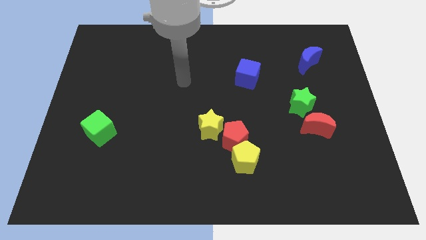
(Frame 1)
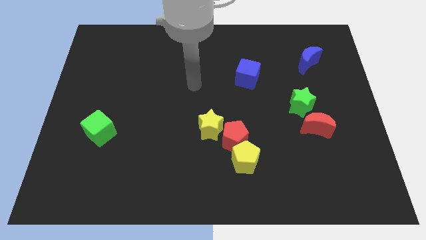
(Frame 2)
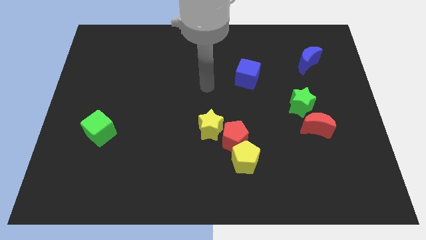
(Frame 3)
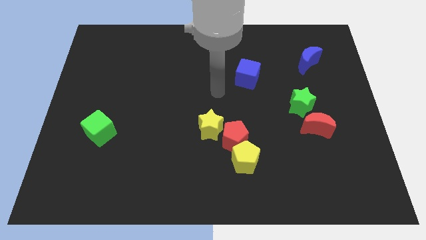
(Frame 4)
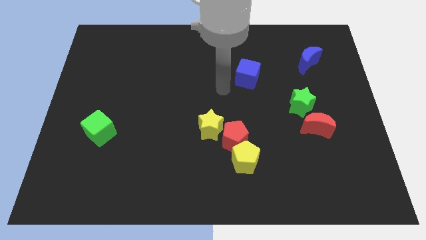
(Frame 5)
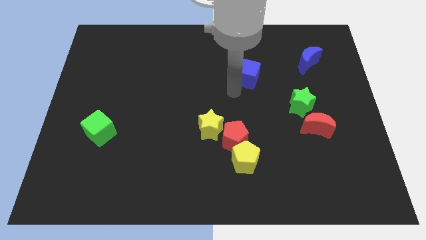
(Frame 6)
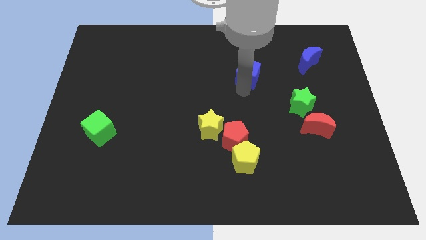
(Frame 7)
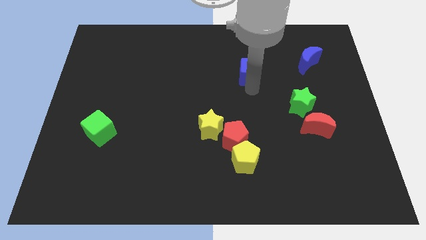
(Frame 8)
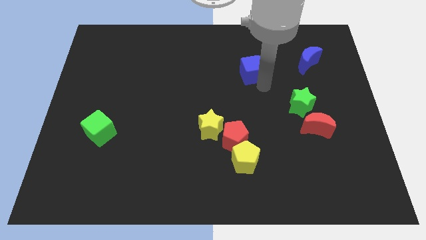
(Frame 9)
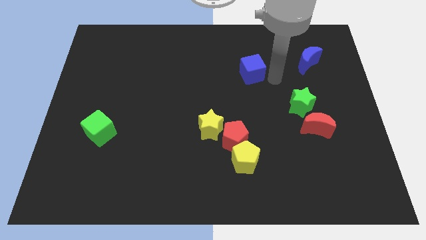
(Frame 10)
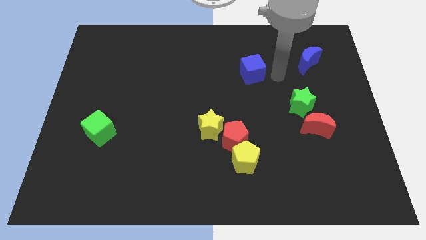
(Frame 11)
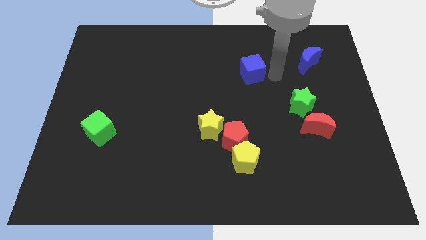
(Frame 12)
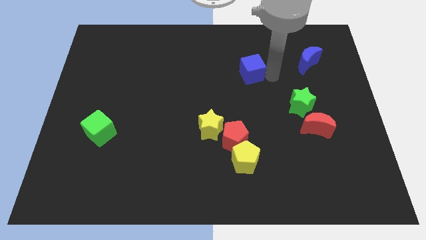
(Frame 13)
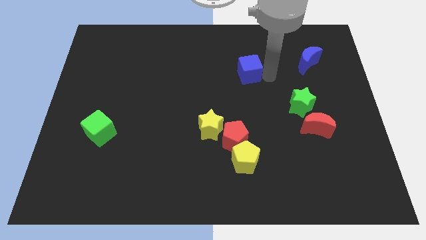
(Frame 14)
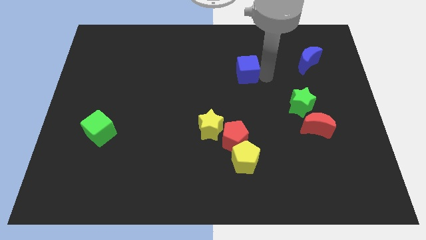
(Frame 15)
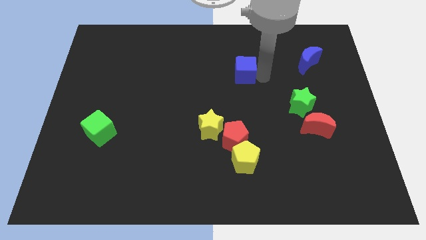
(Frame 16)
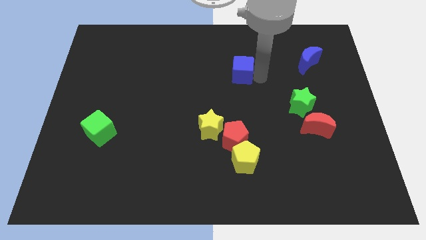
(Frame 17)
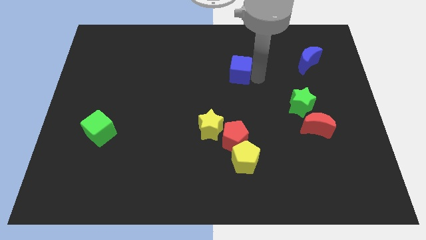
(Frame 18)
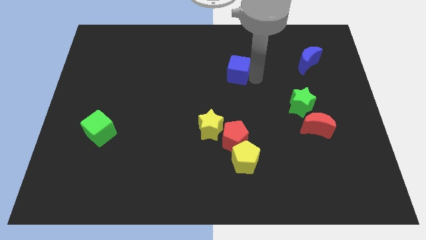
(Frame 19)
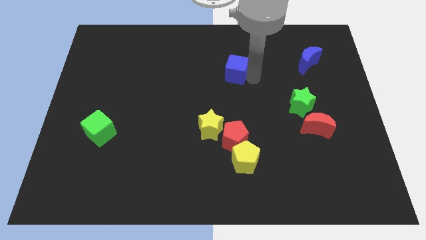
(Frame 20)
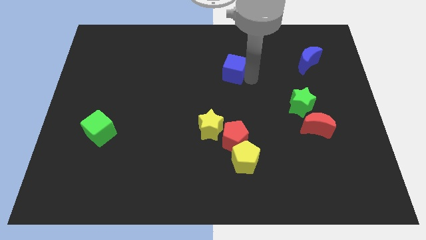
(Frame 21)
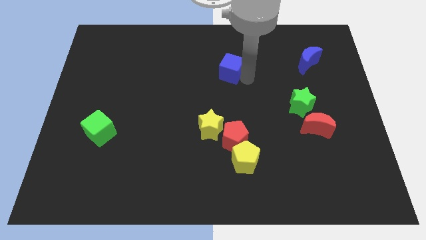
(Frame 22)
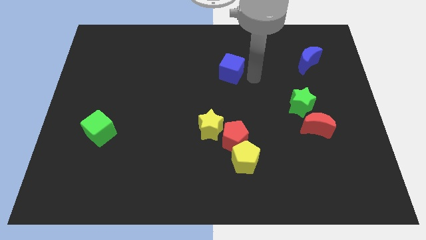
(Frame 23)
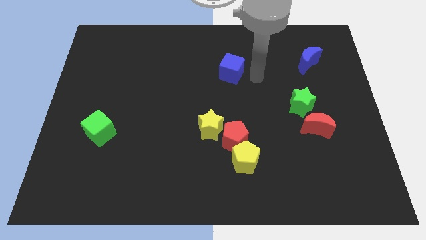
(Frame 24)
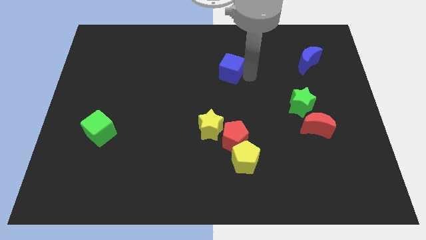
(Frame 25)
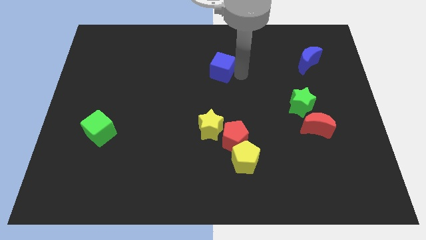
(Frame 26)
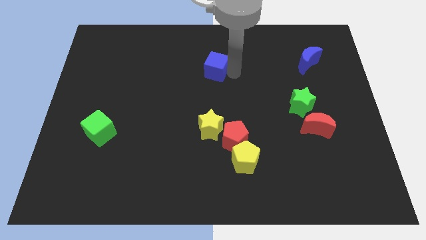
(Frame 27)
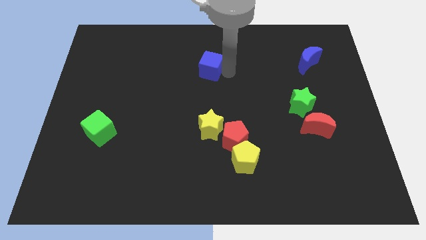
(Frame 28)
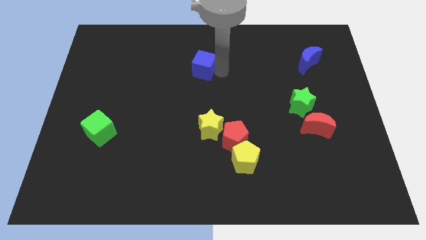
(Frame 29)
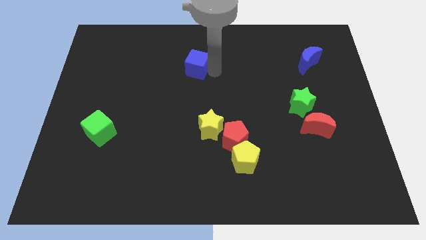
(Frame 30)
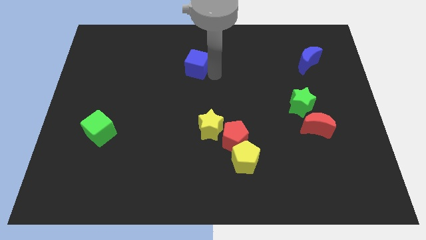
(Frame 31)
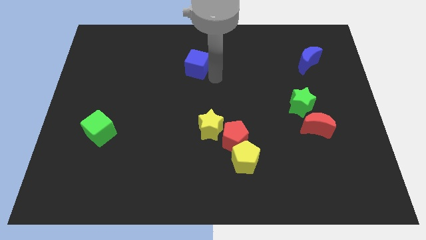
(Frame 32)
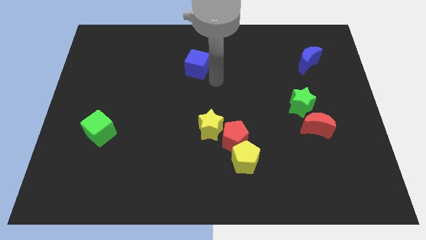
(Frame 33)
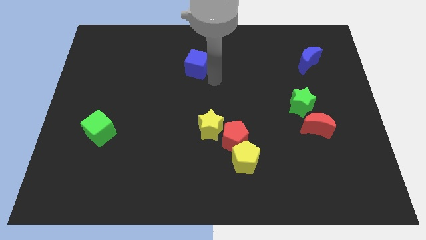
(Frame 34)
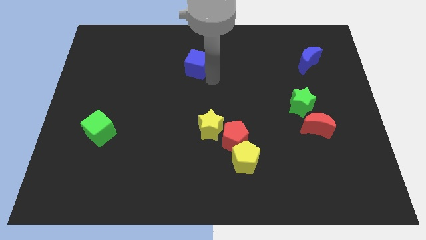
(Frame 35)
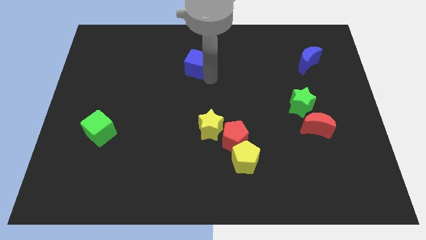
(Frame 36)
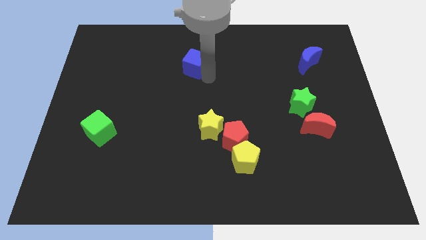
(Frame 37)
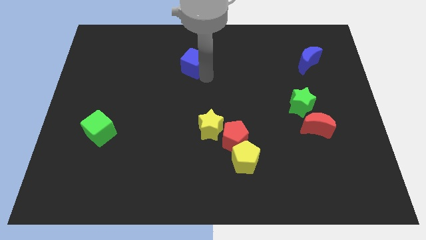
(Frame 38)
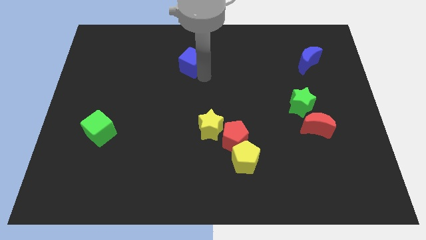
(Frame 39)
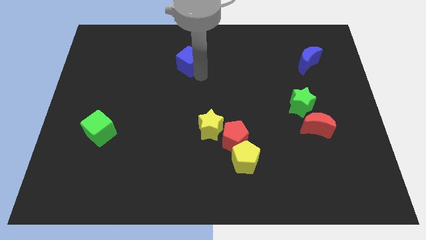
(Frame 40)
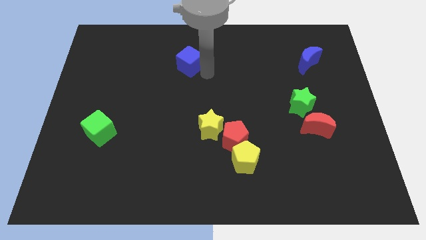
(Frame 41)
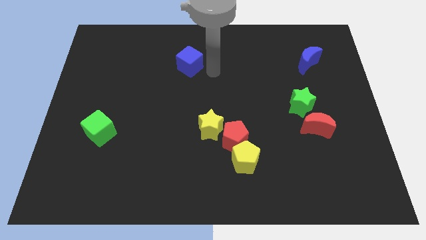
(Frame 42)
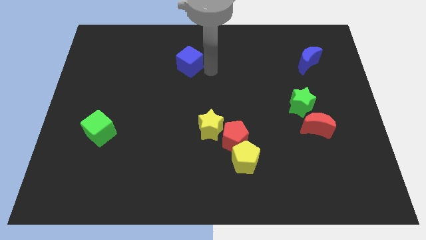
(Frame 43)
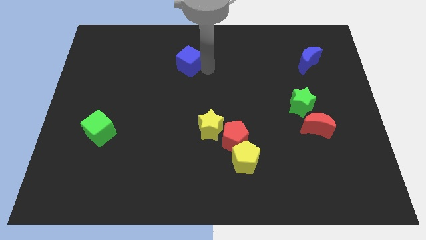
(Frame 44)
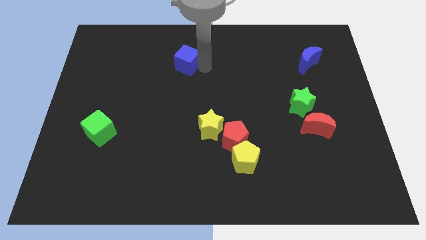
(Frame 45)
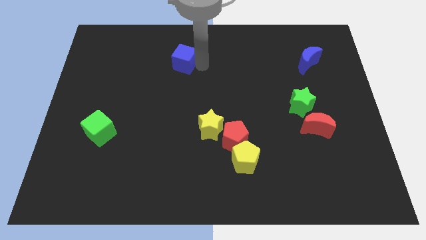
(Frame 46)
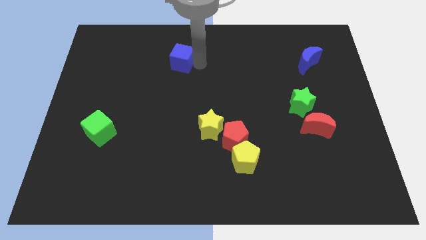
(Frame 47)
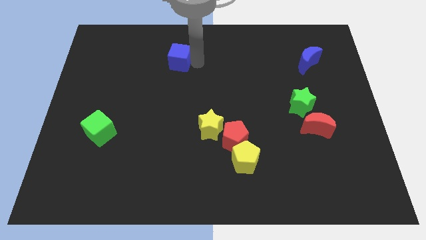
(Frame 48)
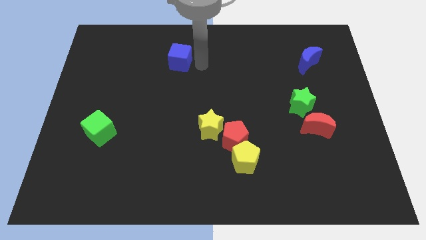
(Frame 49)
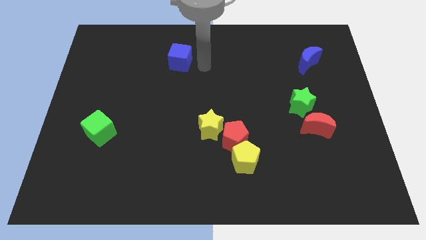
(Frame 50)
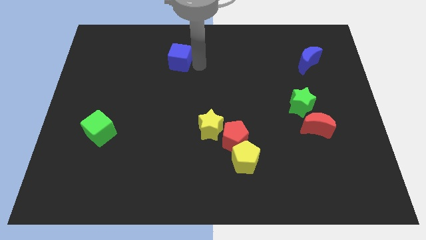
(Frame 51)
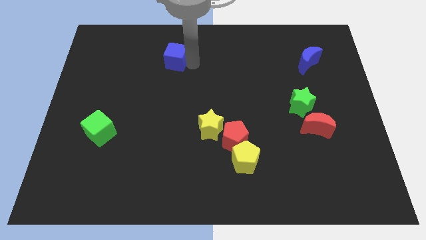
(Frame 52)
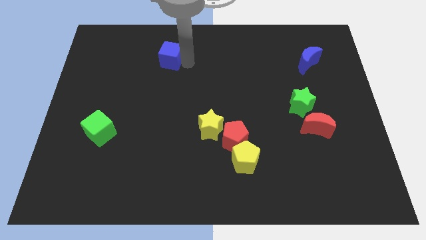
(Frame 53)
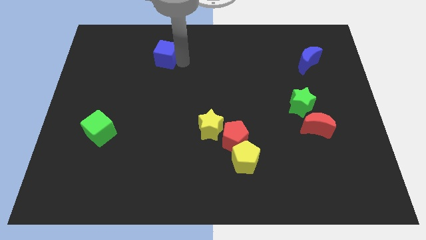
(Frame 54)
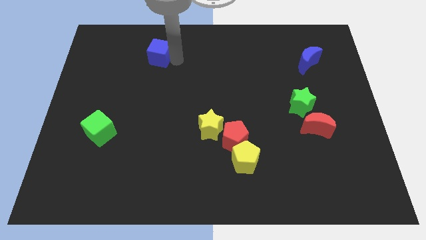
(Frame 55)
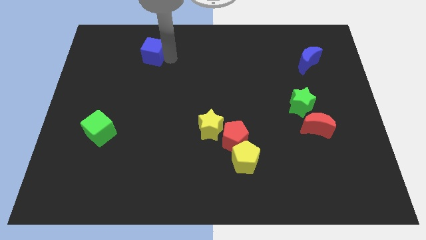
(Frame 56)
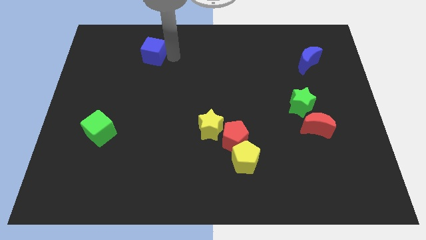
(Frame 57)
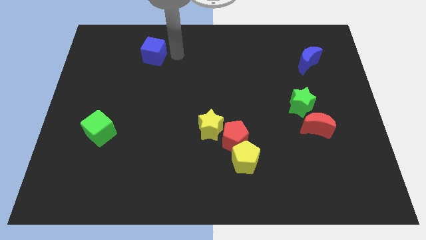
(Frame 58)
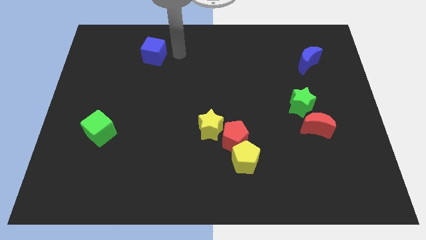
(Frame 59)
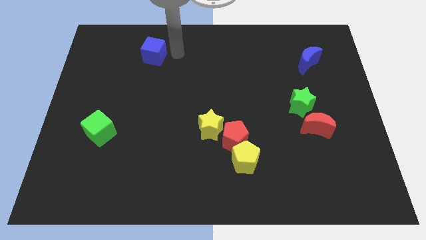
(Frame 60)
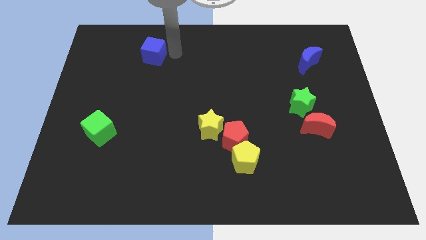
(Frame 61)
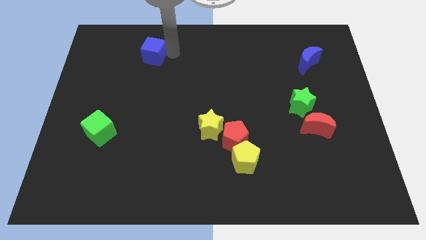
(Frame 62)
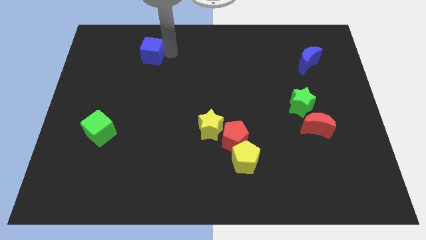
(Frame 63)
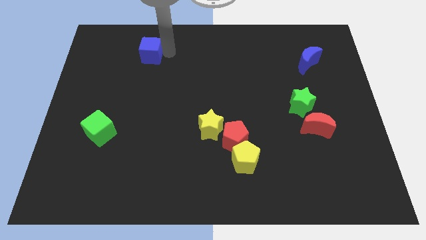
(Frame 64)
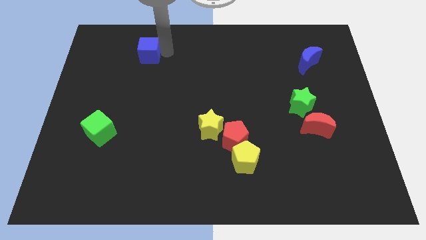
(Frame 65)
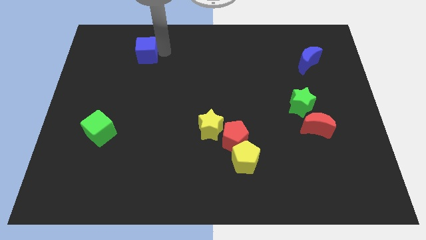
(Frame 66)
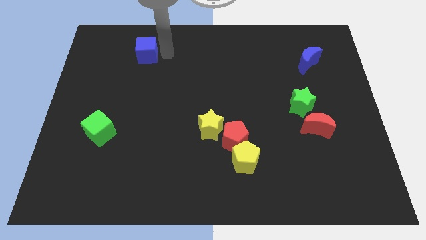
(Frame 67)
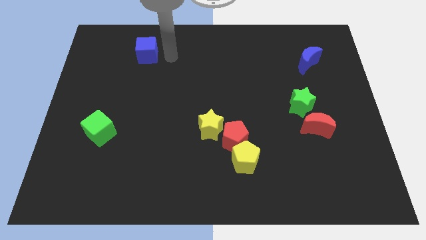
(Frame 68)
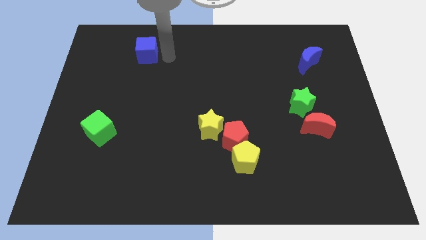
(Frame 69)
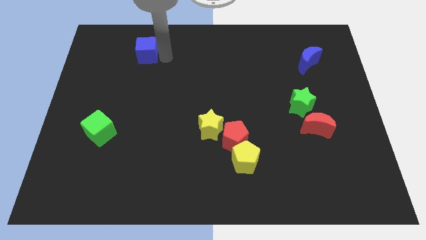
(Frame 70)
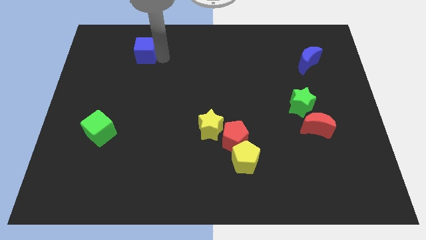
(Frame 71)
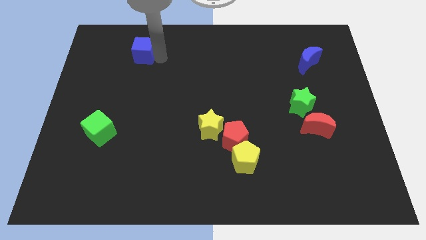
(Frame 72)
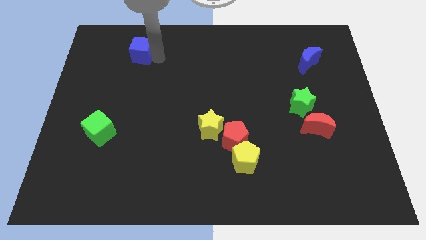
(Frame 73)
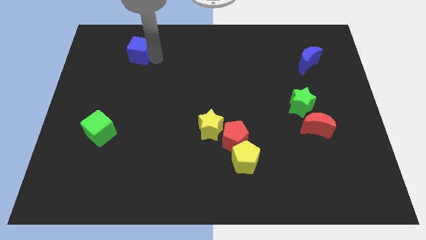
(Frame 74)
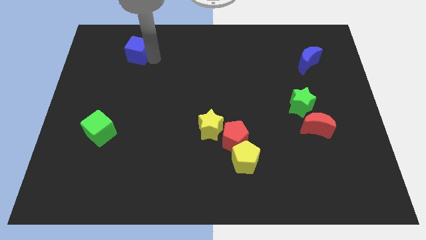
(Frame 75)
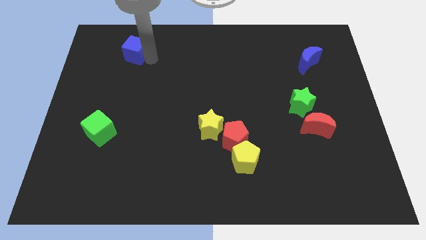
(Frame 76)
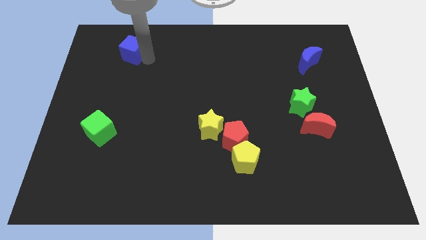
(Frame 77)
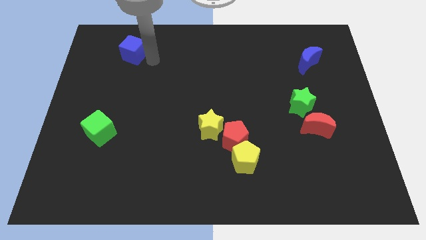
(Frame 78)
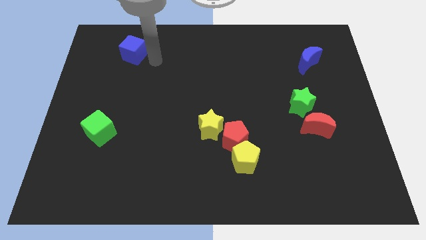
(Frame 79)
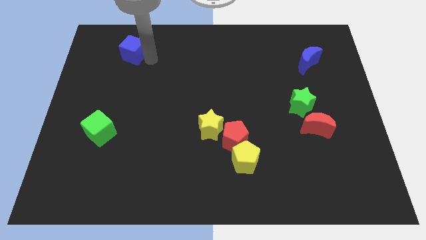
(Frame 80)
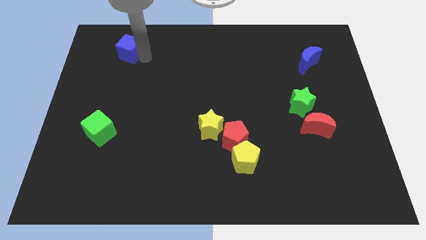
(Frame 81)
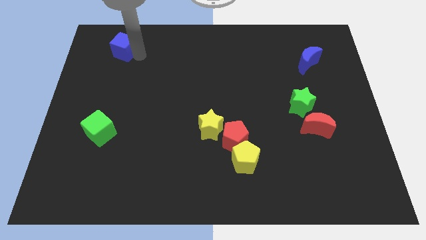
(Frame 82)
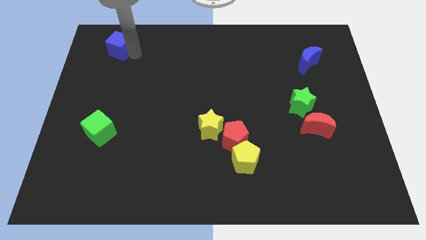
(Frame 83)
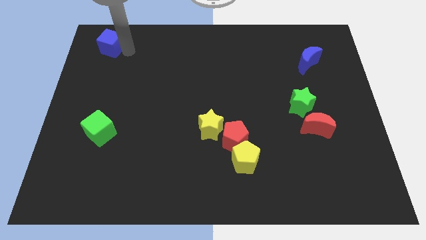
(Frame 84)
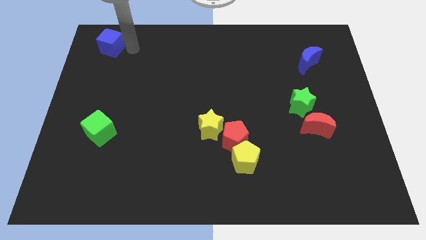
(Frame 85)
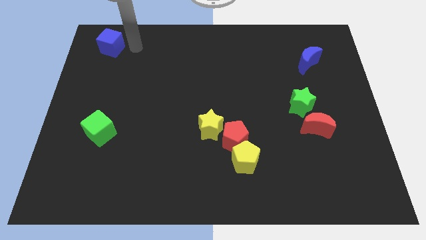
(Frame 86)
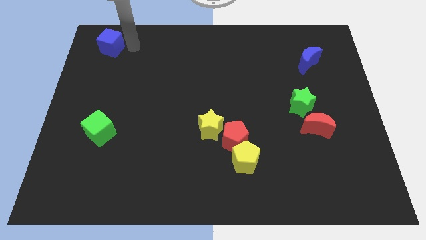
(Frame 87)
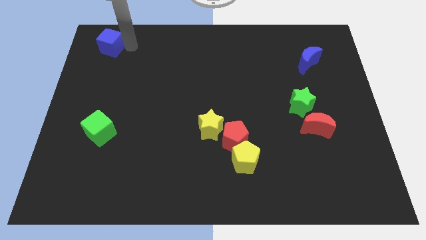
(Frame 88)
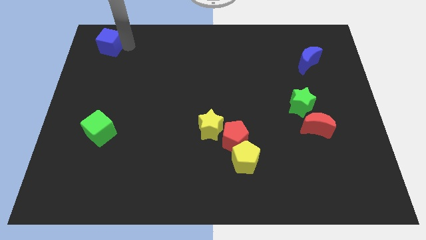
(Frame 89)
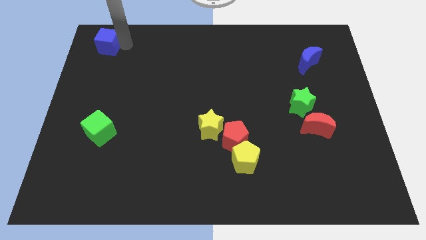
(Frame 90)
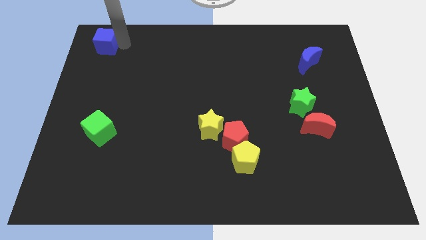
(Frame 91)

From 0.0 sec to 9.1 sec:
move the blue cube to the top left of the board
